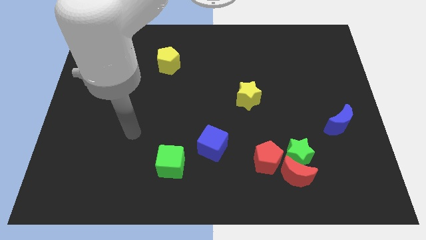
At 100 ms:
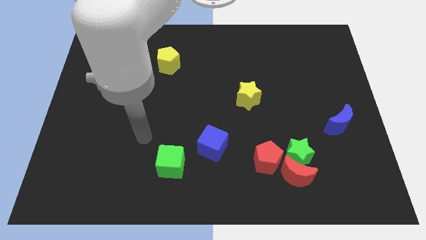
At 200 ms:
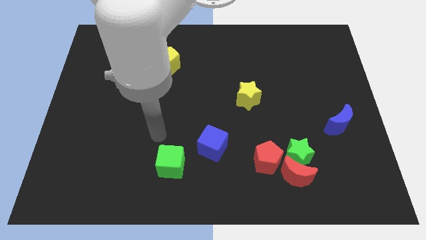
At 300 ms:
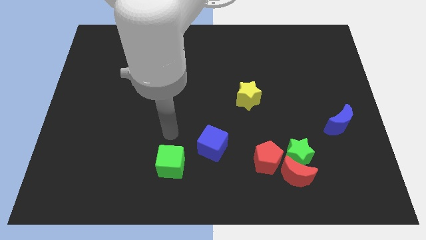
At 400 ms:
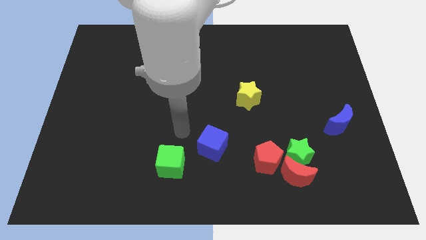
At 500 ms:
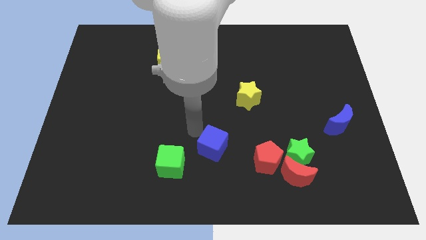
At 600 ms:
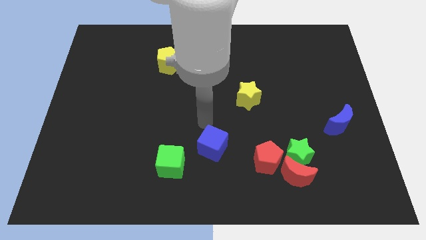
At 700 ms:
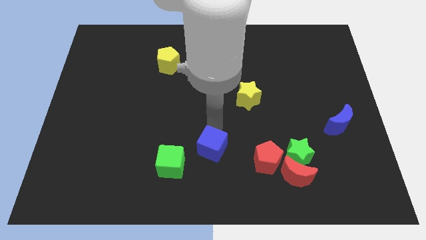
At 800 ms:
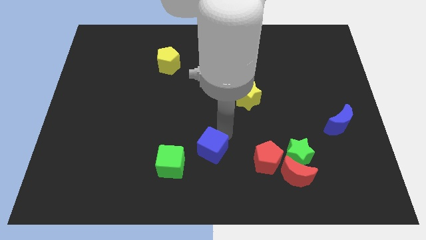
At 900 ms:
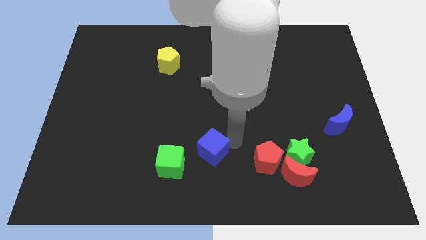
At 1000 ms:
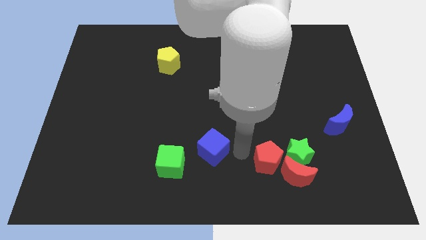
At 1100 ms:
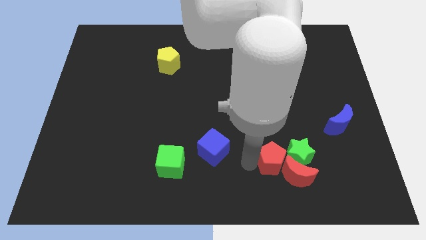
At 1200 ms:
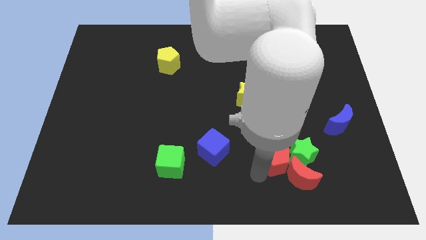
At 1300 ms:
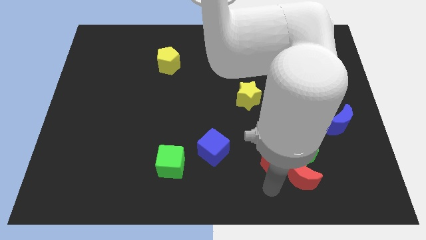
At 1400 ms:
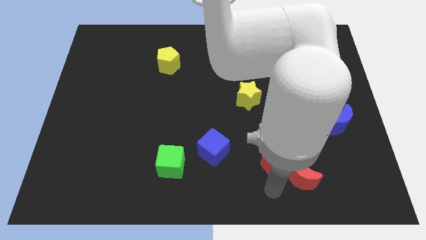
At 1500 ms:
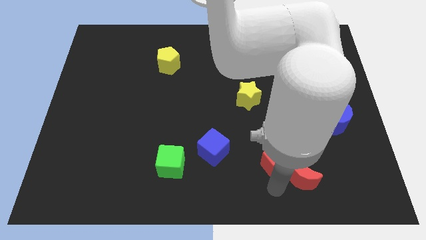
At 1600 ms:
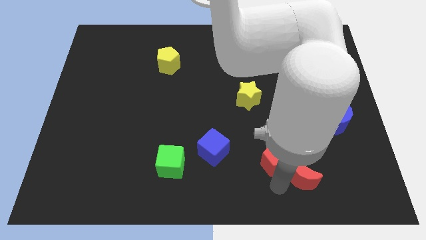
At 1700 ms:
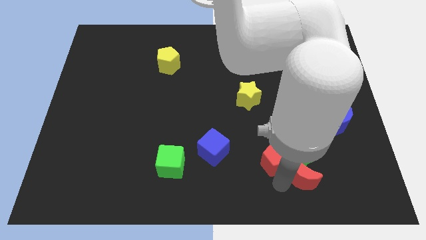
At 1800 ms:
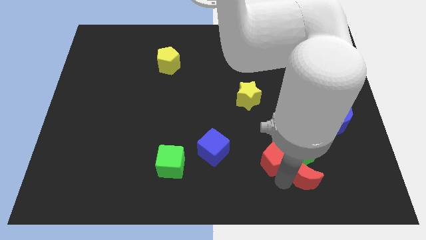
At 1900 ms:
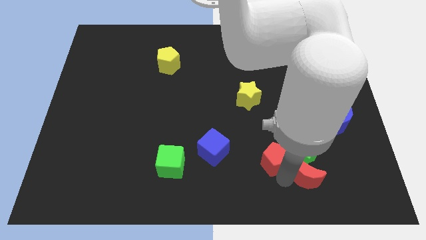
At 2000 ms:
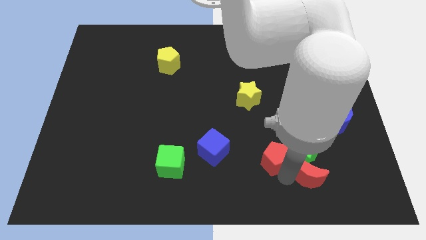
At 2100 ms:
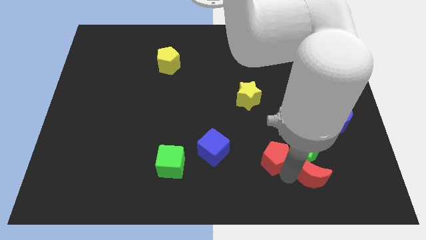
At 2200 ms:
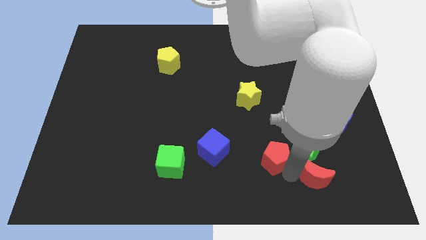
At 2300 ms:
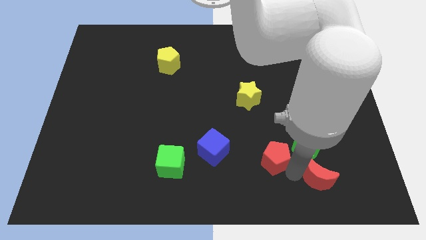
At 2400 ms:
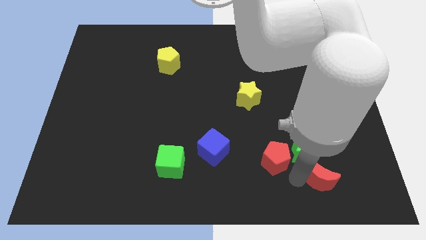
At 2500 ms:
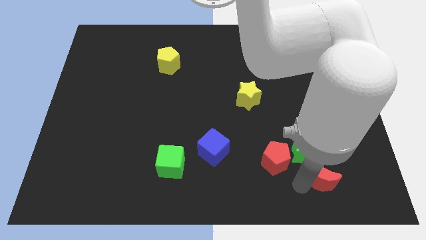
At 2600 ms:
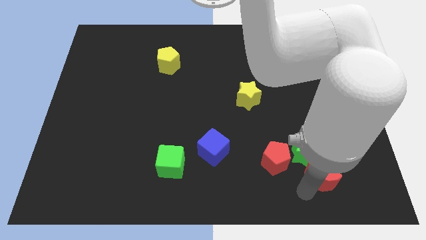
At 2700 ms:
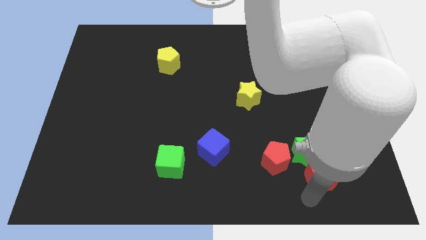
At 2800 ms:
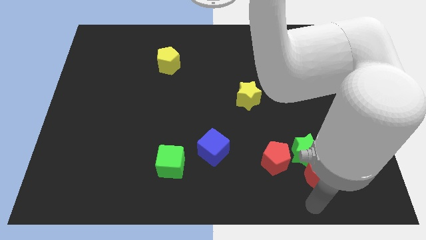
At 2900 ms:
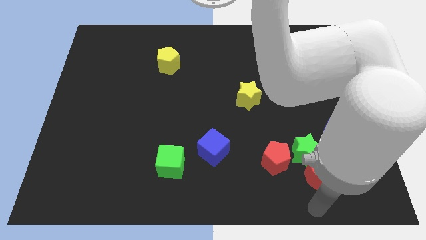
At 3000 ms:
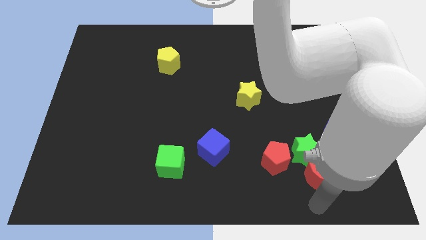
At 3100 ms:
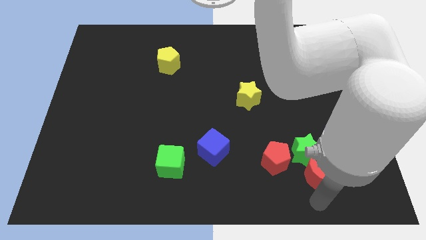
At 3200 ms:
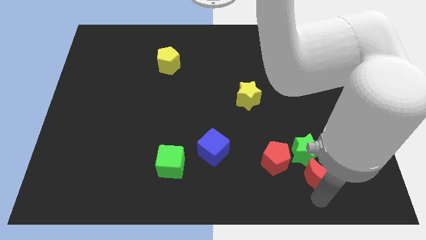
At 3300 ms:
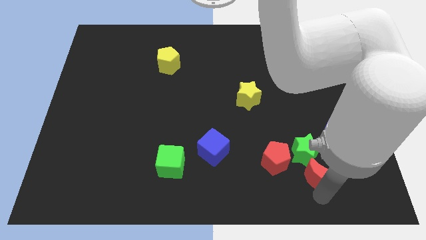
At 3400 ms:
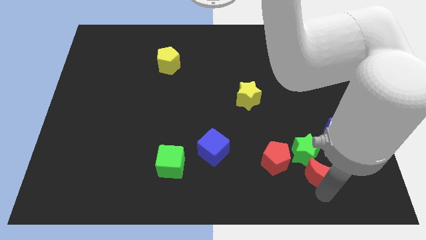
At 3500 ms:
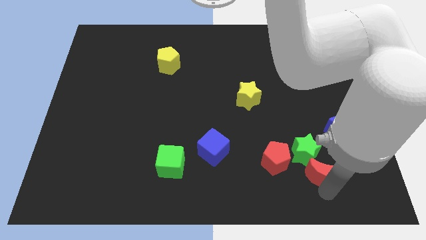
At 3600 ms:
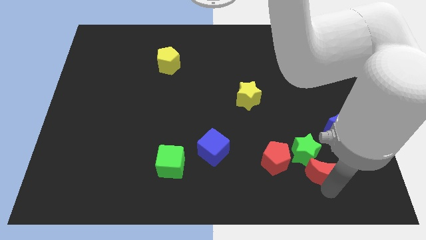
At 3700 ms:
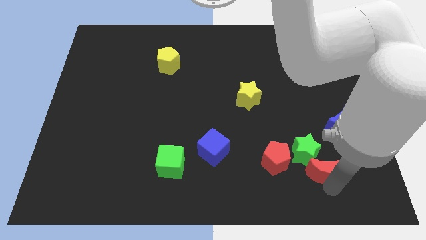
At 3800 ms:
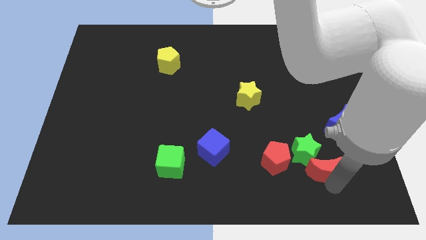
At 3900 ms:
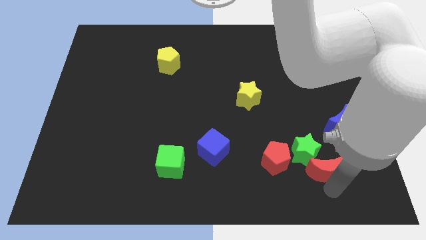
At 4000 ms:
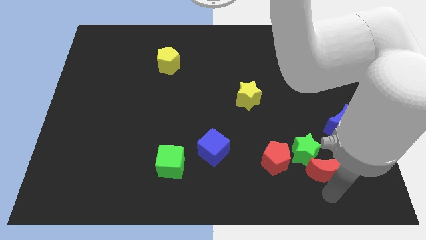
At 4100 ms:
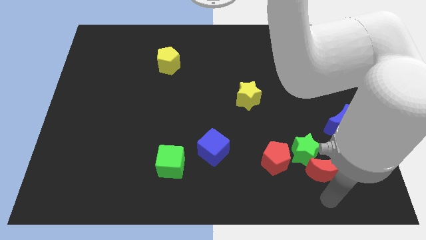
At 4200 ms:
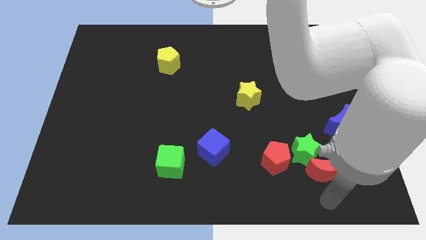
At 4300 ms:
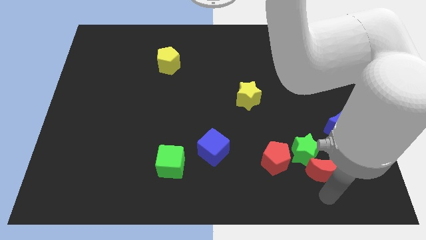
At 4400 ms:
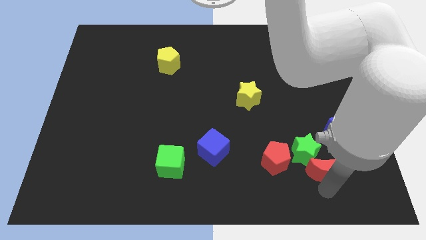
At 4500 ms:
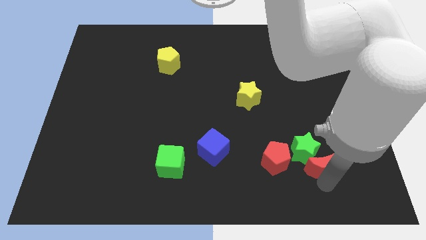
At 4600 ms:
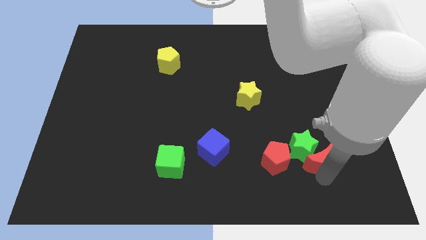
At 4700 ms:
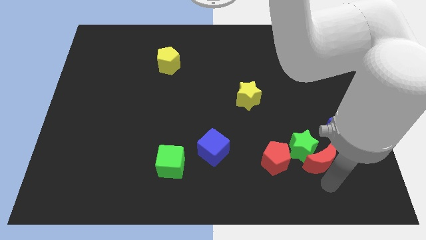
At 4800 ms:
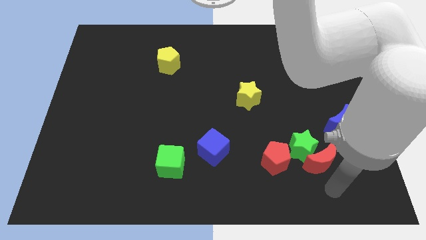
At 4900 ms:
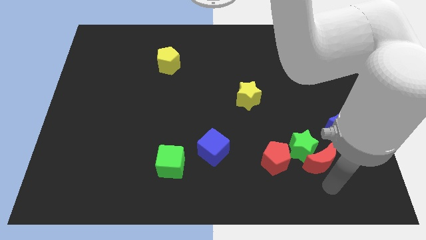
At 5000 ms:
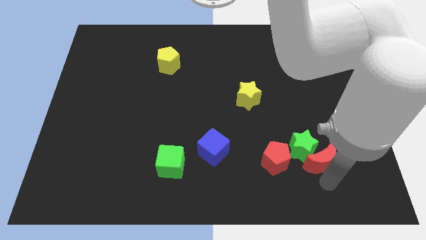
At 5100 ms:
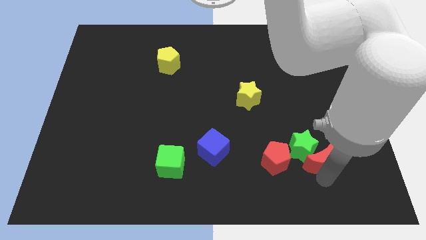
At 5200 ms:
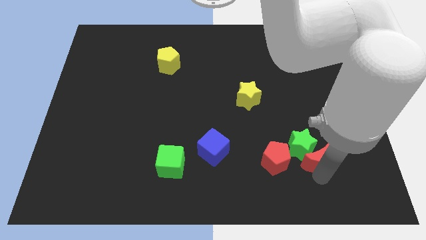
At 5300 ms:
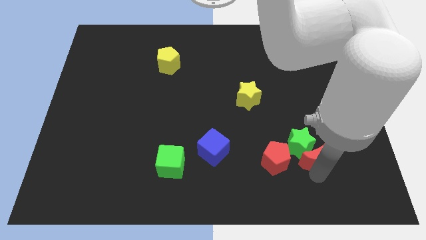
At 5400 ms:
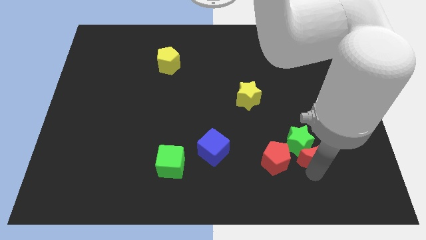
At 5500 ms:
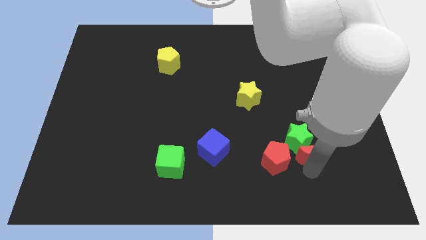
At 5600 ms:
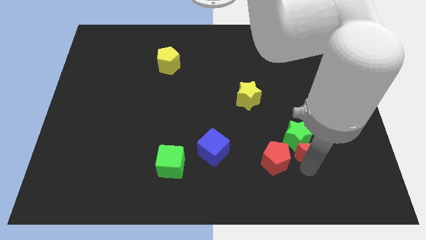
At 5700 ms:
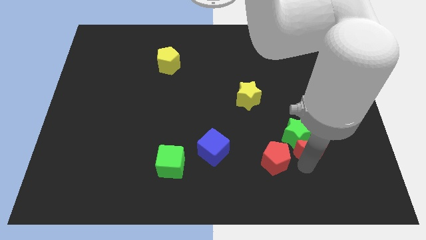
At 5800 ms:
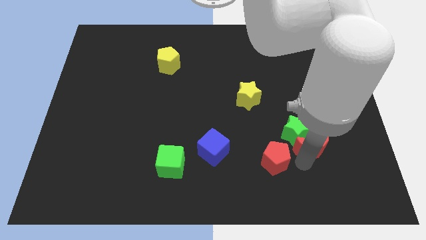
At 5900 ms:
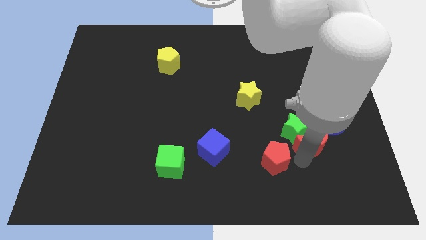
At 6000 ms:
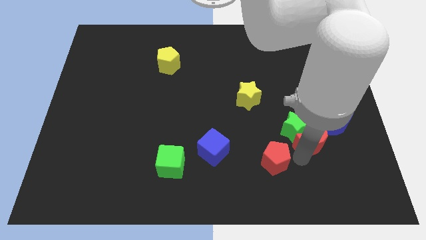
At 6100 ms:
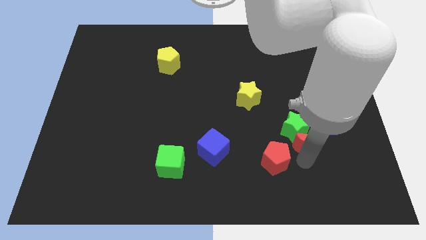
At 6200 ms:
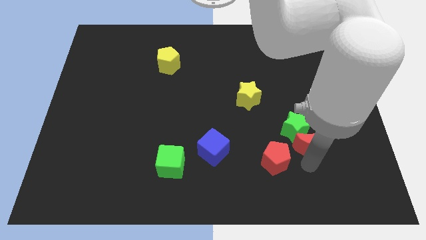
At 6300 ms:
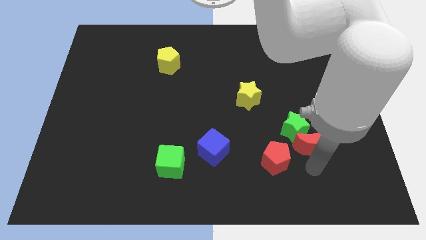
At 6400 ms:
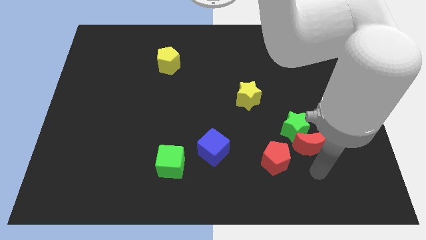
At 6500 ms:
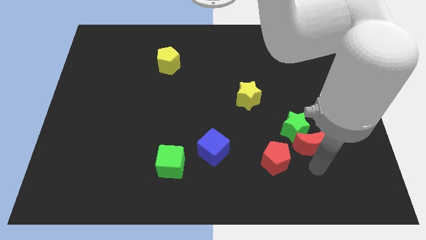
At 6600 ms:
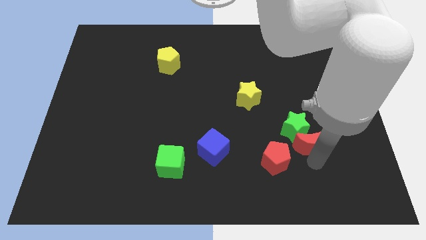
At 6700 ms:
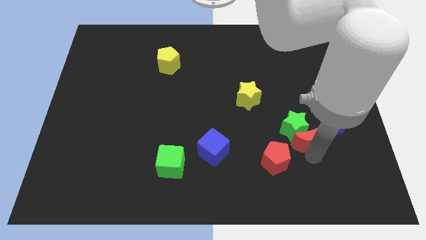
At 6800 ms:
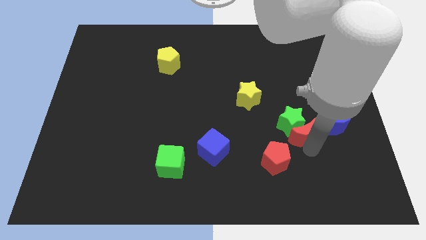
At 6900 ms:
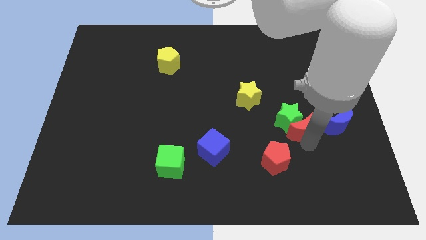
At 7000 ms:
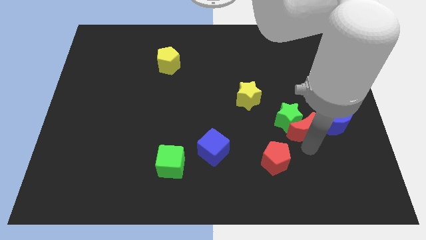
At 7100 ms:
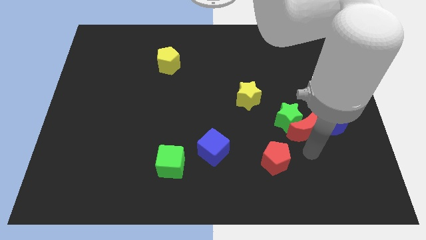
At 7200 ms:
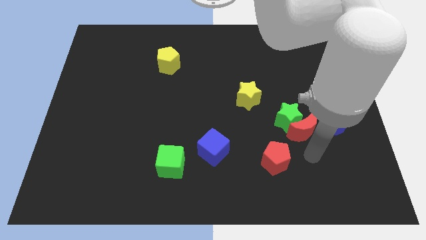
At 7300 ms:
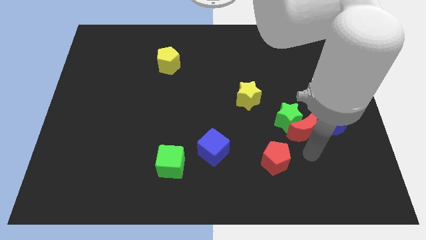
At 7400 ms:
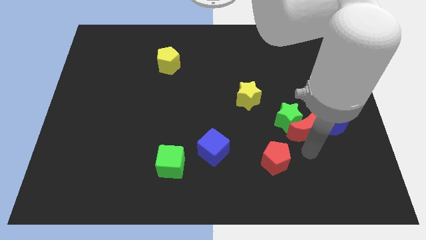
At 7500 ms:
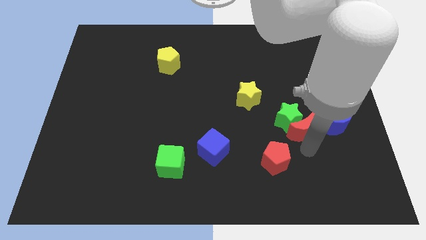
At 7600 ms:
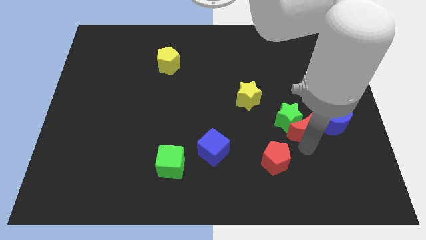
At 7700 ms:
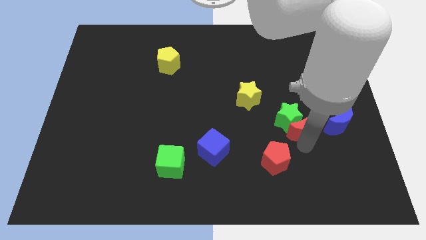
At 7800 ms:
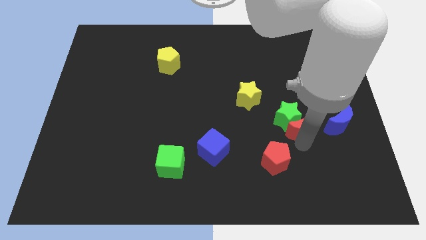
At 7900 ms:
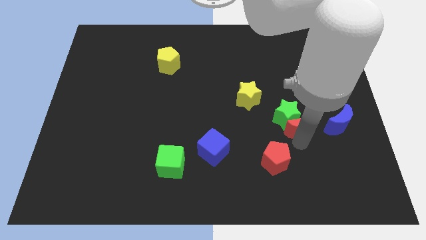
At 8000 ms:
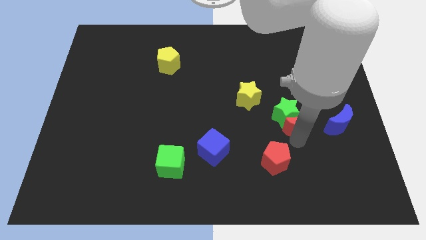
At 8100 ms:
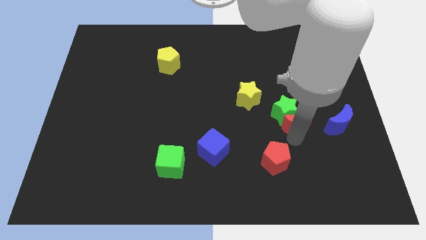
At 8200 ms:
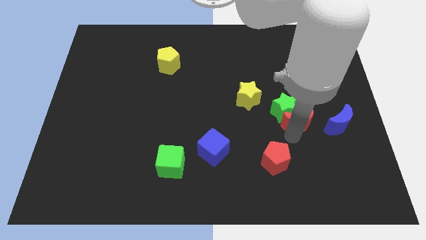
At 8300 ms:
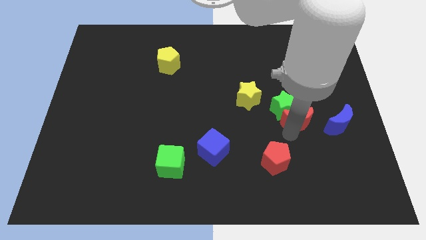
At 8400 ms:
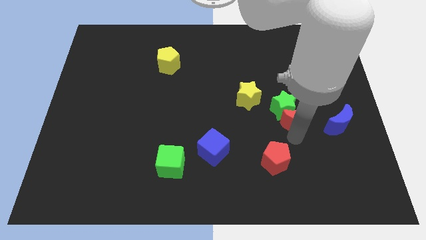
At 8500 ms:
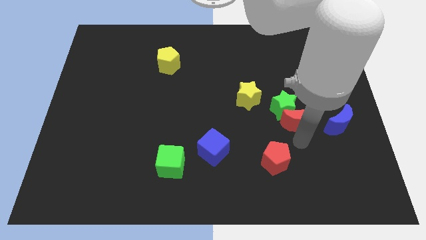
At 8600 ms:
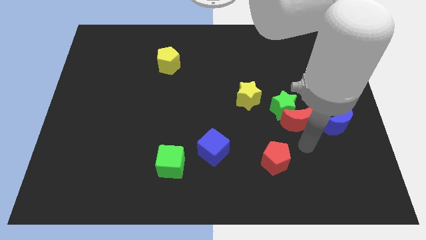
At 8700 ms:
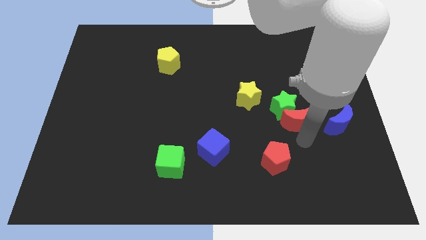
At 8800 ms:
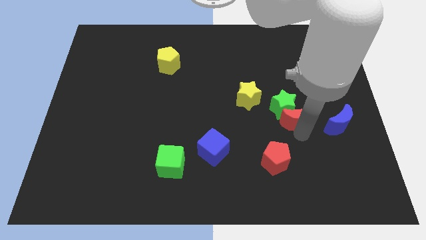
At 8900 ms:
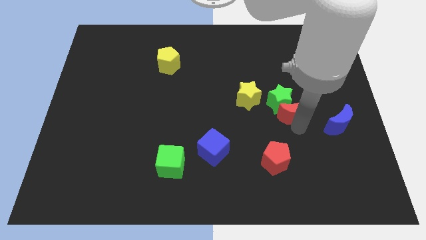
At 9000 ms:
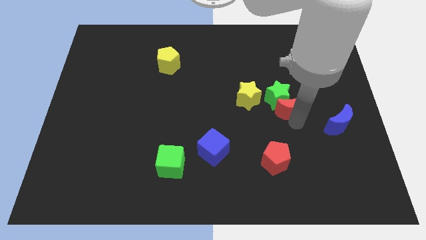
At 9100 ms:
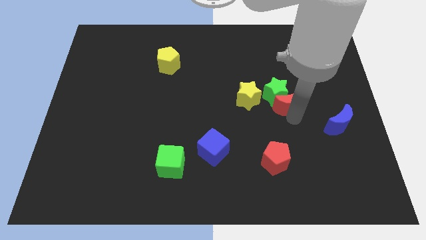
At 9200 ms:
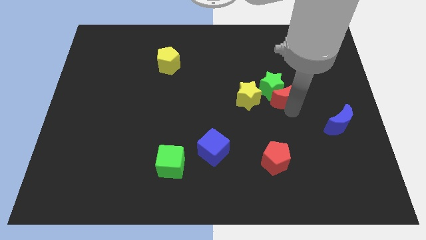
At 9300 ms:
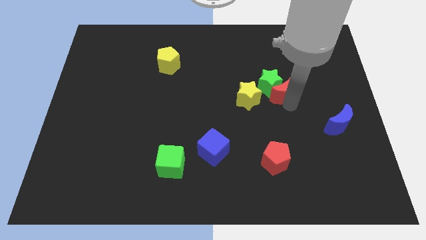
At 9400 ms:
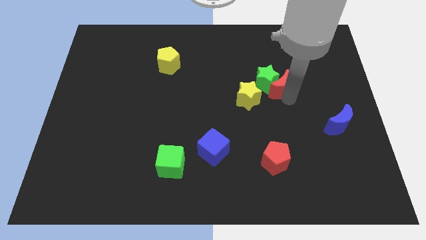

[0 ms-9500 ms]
slide the red moon to the top right of the yellow star
